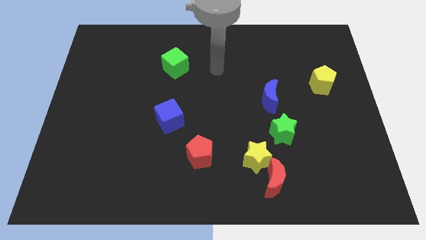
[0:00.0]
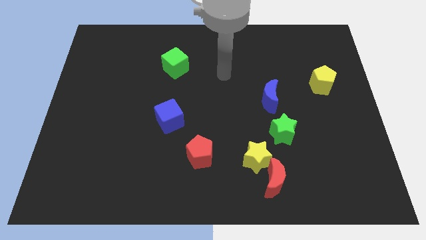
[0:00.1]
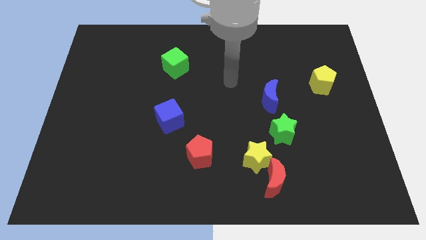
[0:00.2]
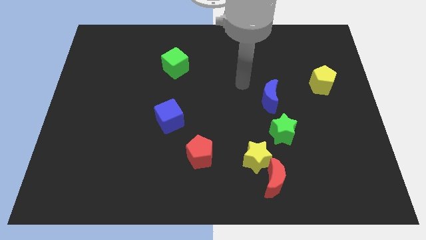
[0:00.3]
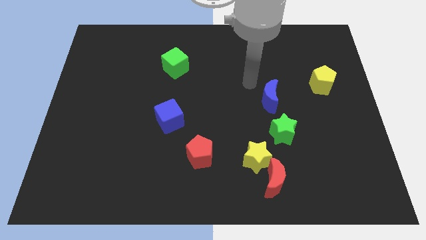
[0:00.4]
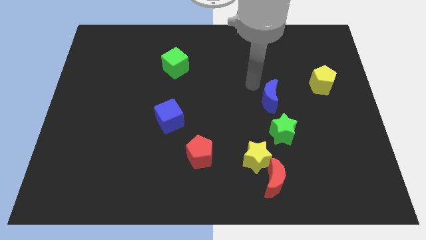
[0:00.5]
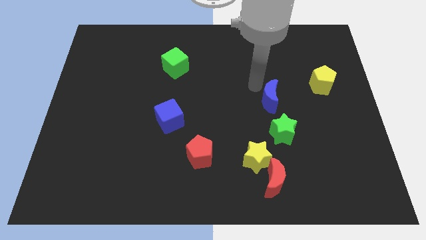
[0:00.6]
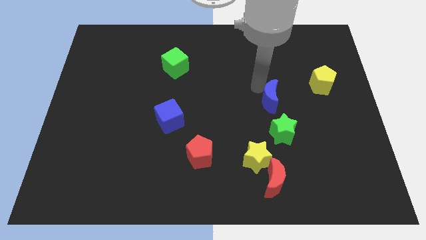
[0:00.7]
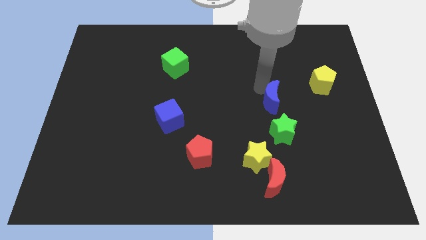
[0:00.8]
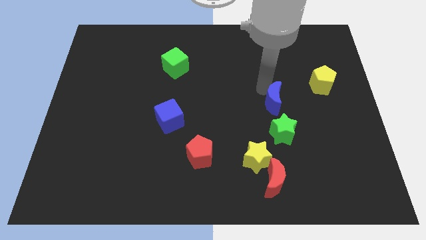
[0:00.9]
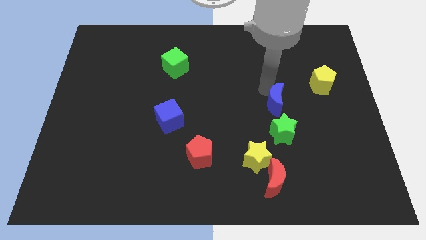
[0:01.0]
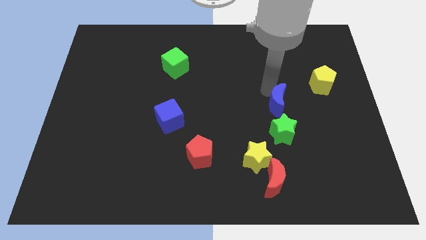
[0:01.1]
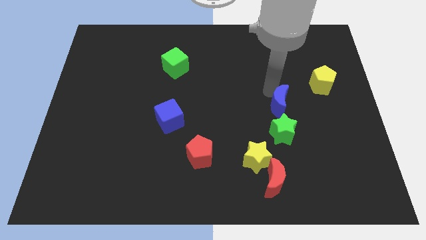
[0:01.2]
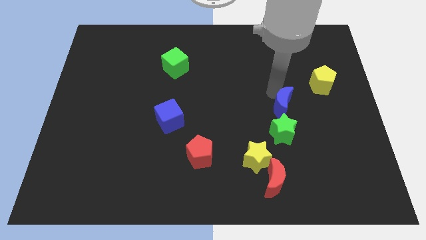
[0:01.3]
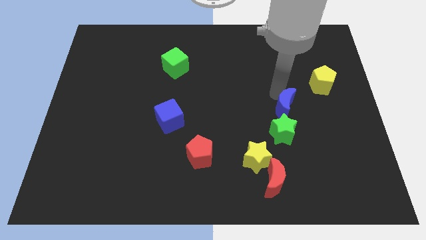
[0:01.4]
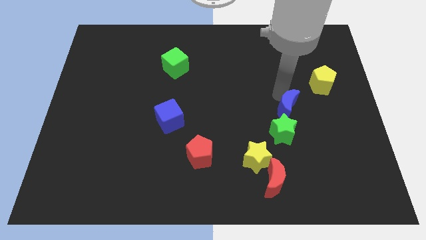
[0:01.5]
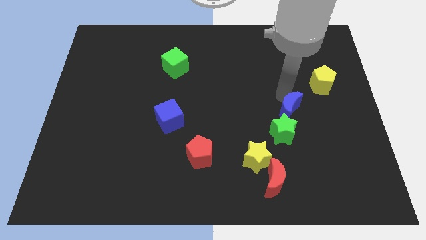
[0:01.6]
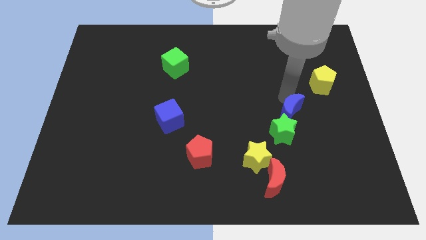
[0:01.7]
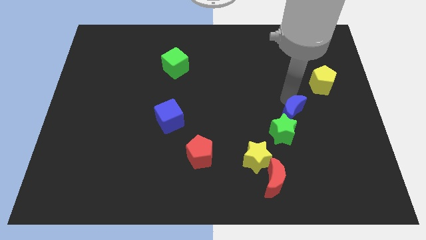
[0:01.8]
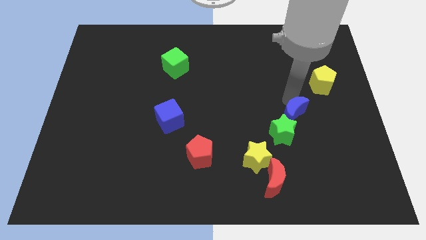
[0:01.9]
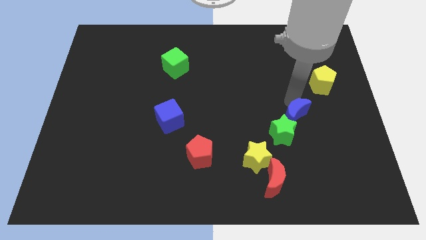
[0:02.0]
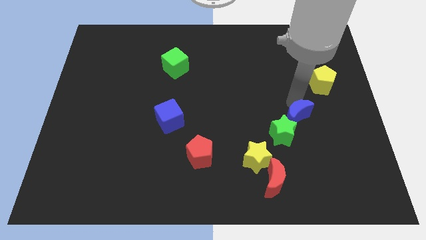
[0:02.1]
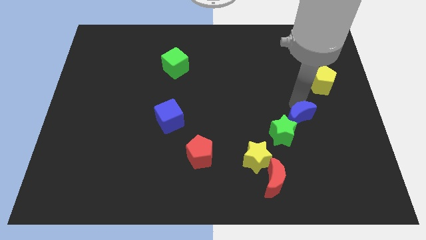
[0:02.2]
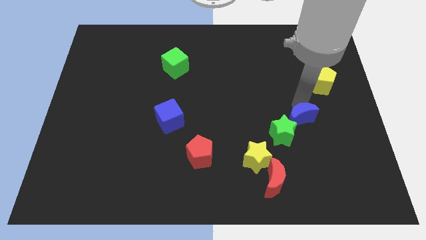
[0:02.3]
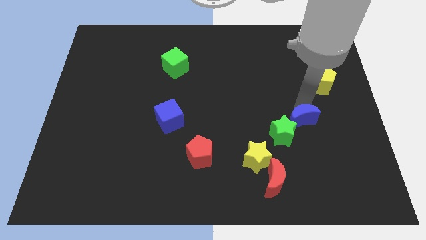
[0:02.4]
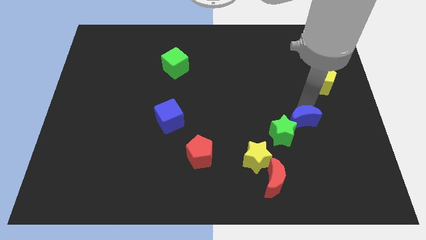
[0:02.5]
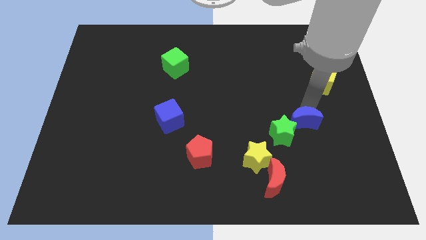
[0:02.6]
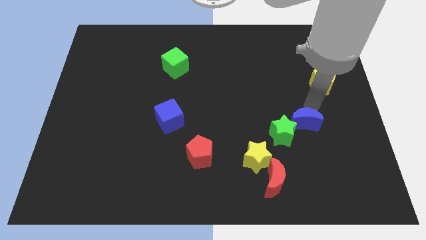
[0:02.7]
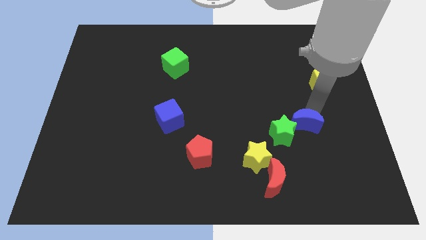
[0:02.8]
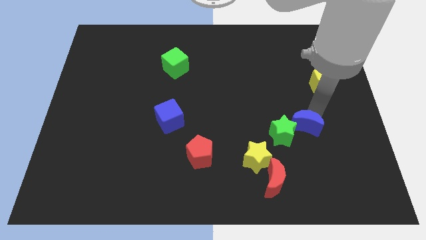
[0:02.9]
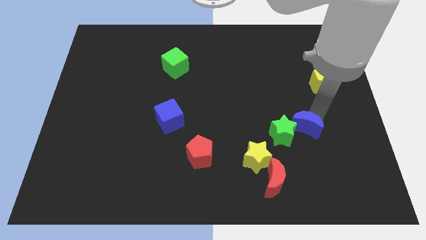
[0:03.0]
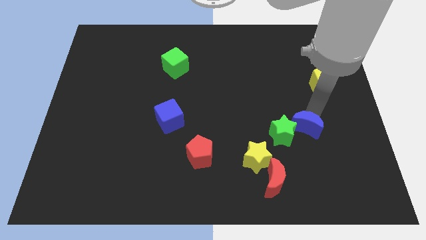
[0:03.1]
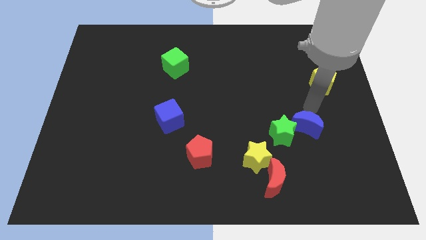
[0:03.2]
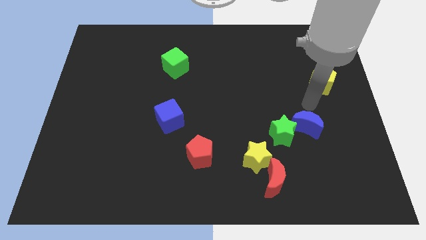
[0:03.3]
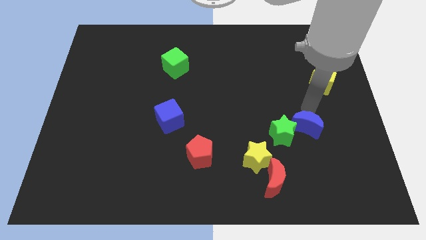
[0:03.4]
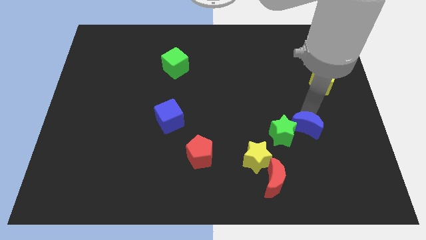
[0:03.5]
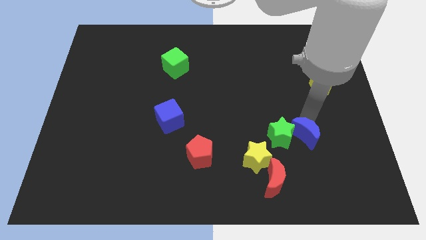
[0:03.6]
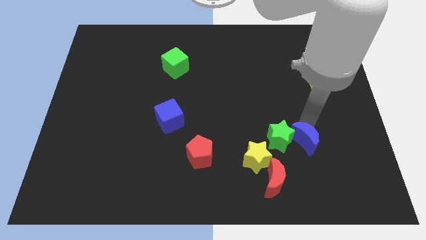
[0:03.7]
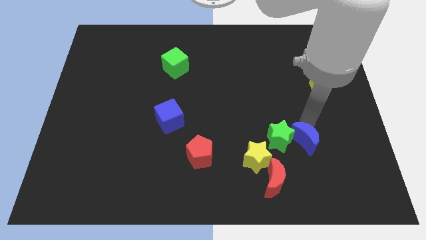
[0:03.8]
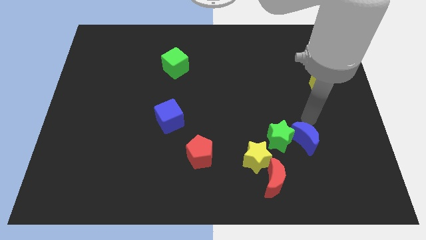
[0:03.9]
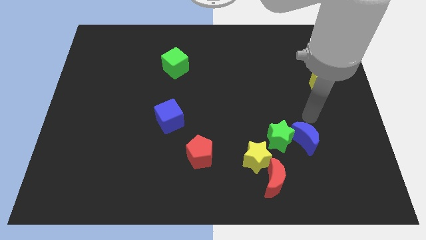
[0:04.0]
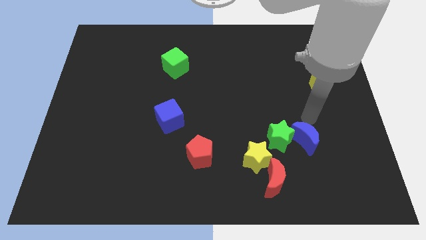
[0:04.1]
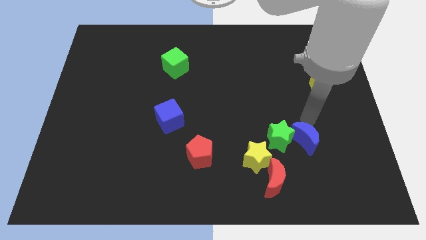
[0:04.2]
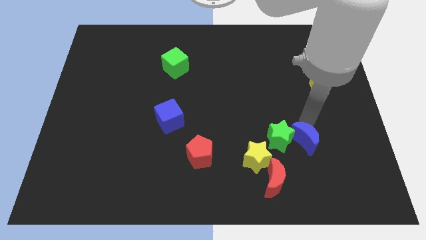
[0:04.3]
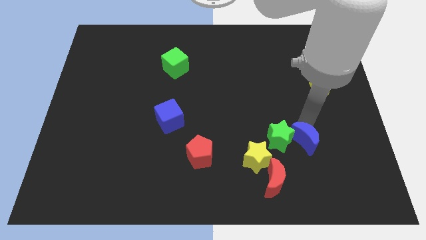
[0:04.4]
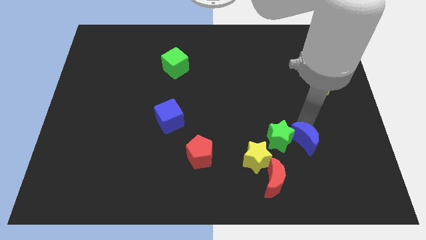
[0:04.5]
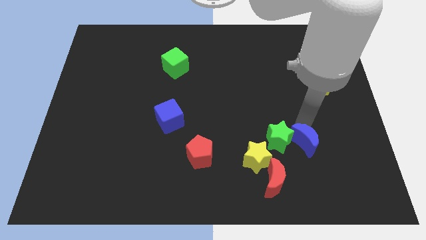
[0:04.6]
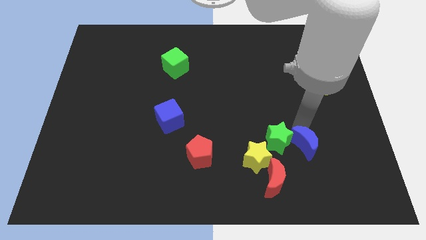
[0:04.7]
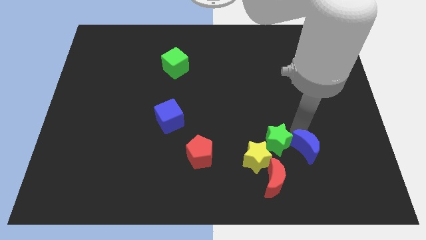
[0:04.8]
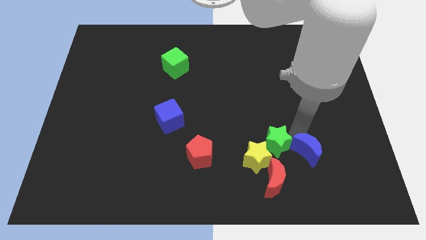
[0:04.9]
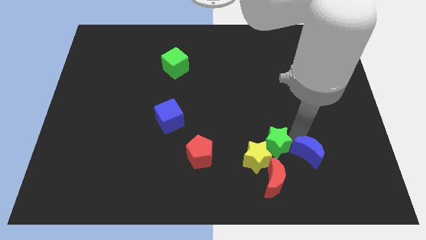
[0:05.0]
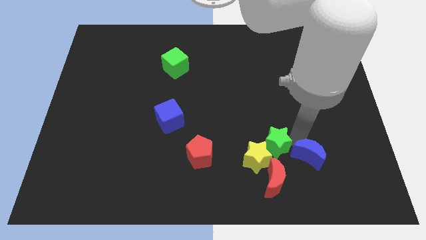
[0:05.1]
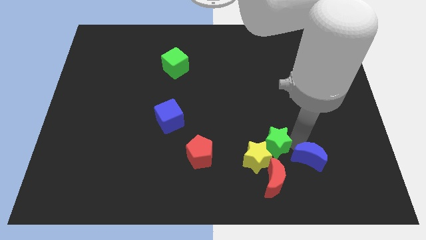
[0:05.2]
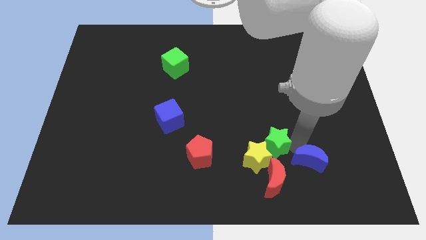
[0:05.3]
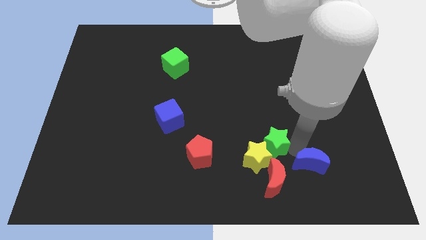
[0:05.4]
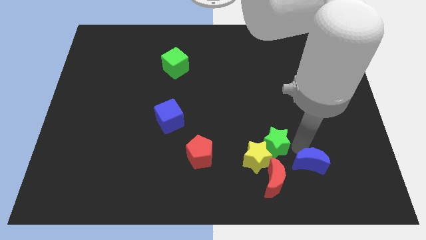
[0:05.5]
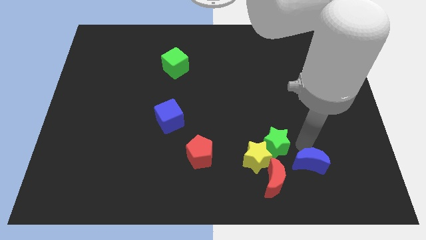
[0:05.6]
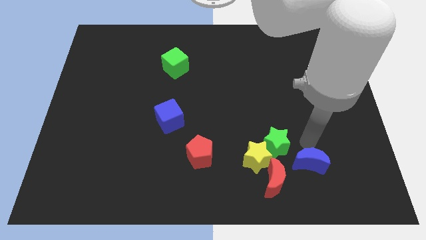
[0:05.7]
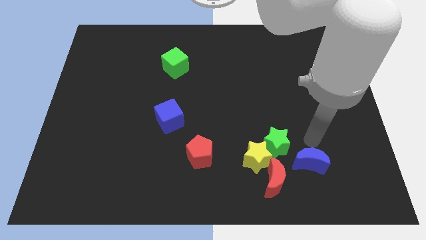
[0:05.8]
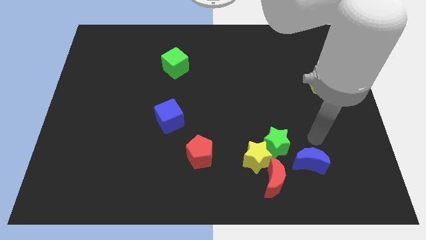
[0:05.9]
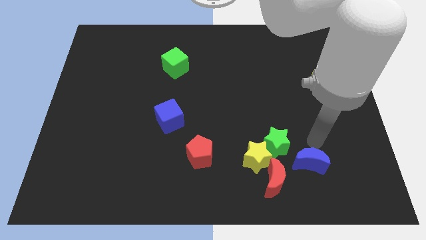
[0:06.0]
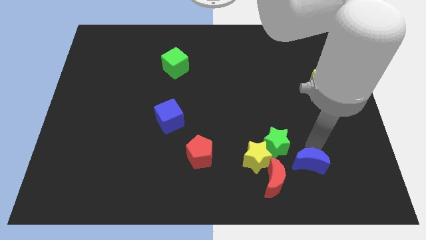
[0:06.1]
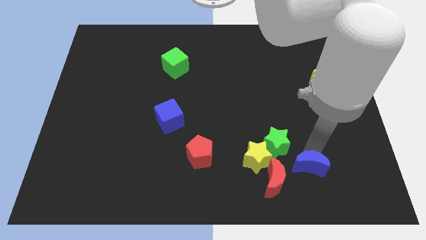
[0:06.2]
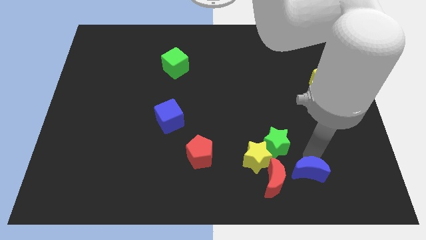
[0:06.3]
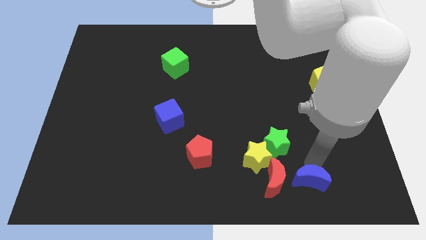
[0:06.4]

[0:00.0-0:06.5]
slide the blue moon diagonally down and to the right of the yellow star

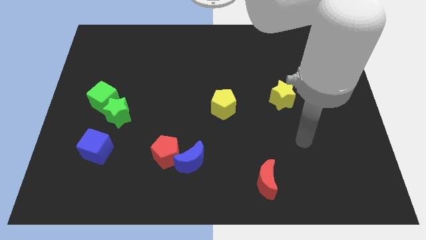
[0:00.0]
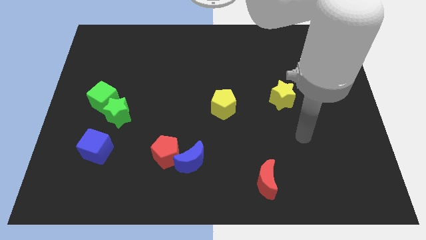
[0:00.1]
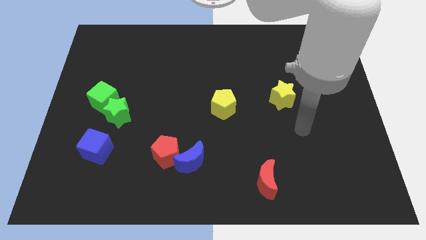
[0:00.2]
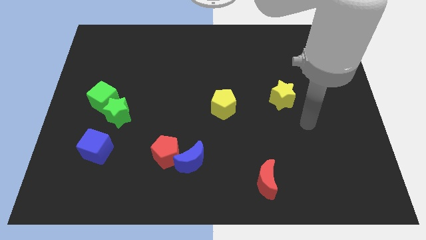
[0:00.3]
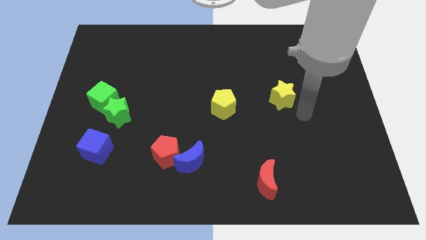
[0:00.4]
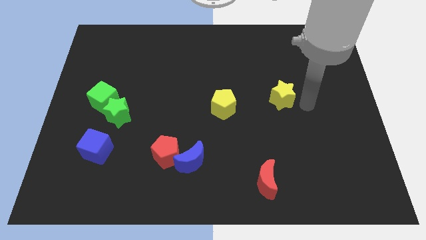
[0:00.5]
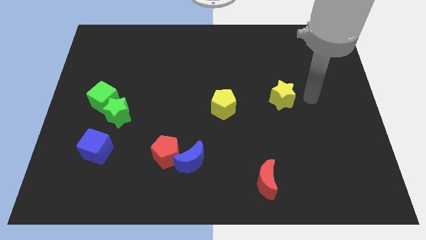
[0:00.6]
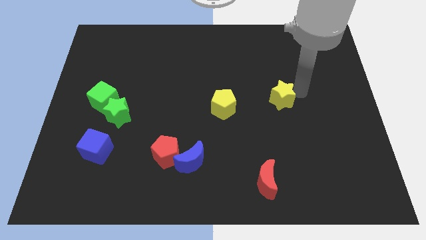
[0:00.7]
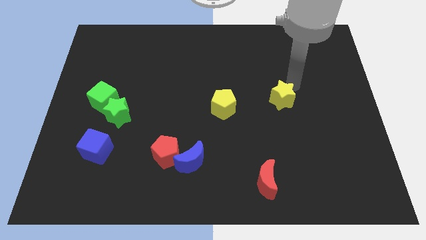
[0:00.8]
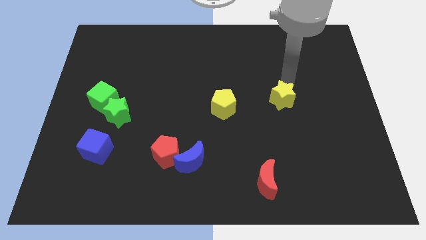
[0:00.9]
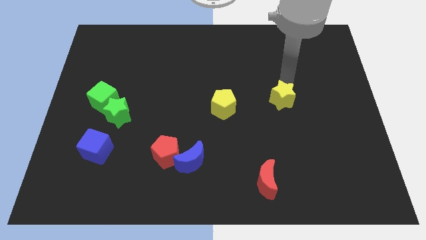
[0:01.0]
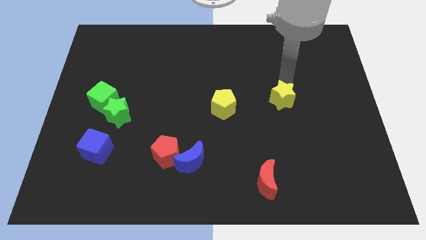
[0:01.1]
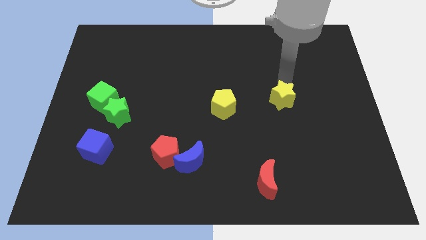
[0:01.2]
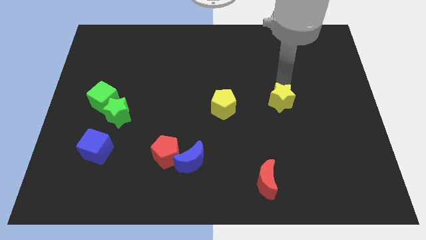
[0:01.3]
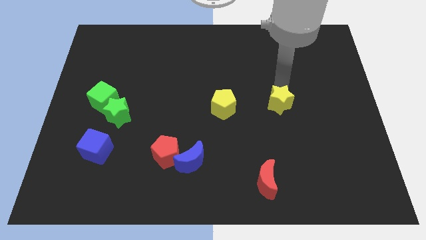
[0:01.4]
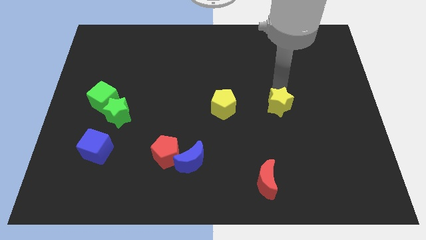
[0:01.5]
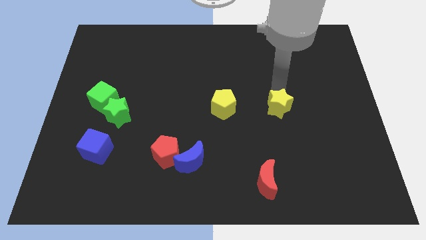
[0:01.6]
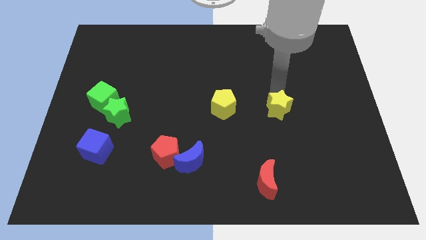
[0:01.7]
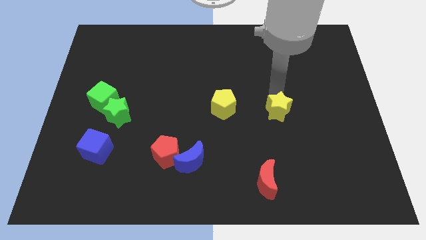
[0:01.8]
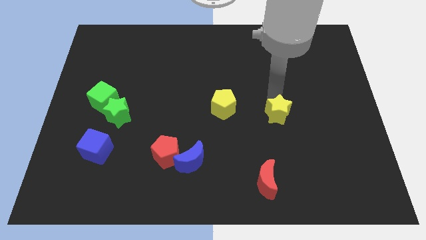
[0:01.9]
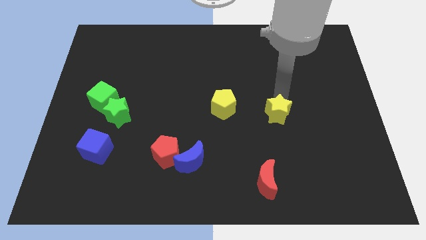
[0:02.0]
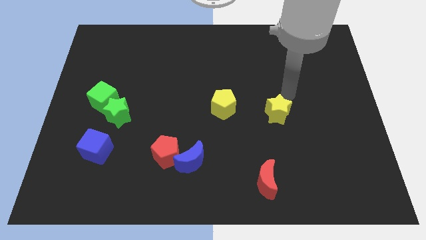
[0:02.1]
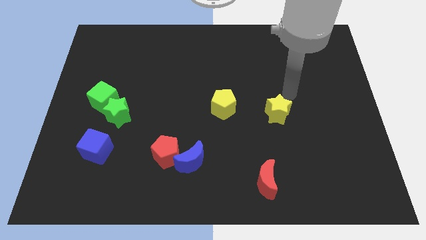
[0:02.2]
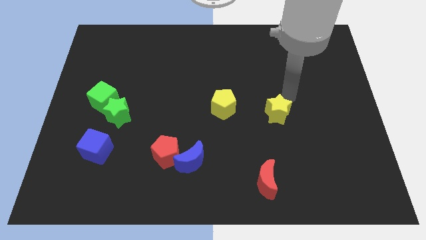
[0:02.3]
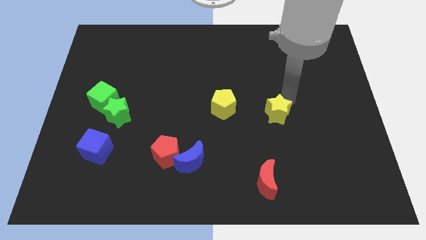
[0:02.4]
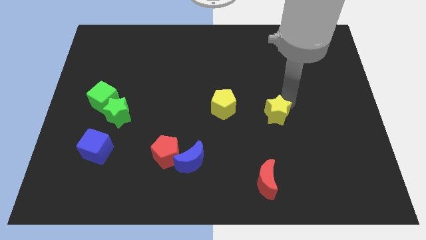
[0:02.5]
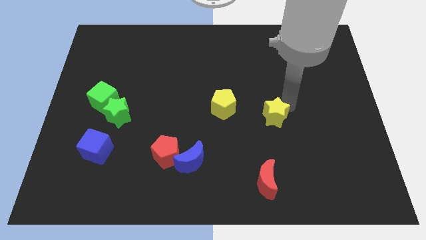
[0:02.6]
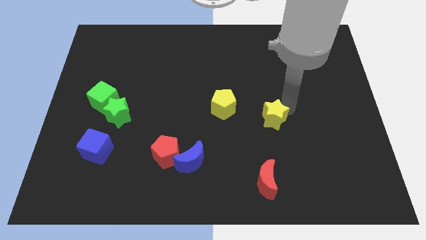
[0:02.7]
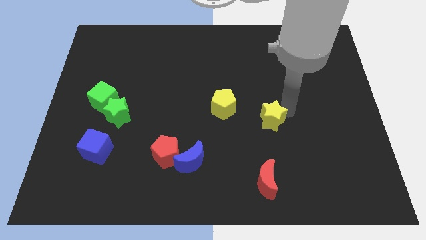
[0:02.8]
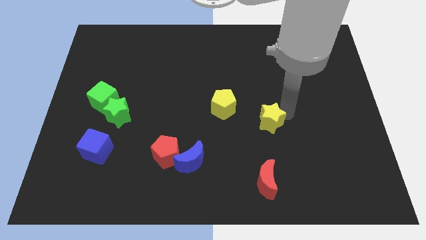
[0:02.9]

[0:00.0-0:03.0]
push the yellow star to the top side of the red moon
